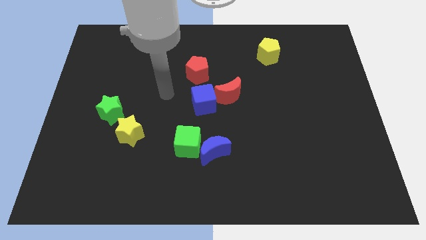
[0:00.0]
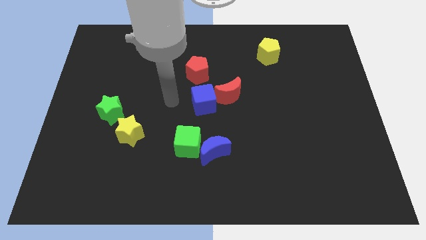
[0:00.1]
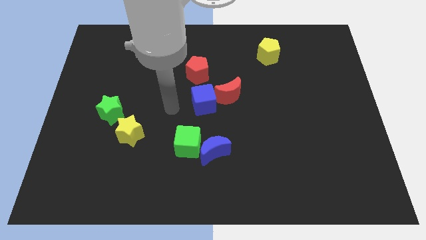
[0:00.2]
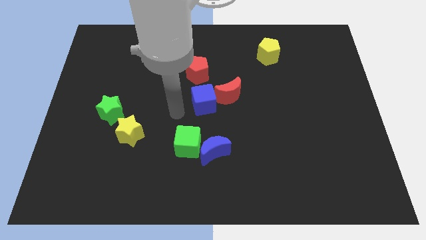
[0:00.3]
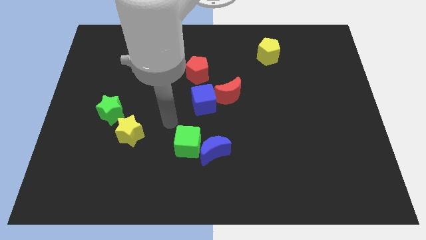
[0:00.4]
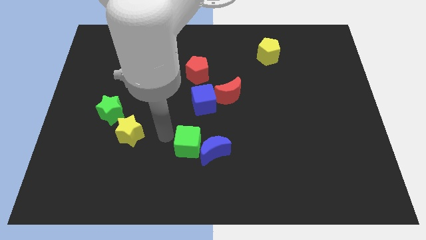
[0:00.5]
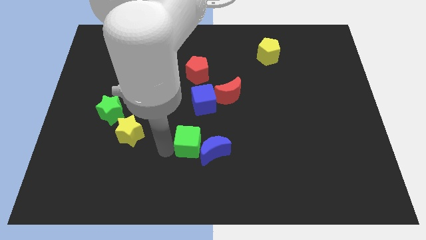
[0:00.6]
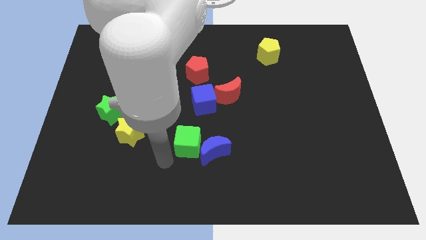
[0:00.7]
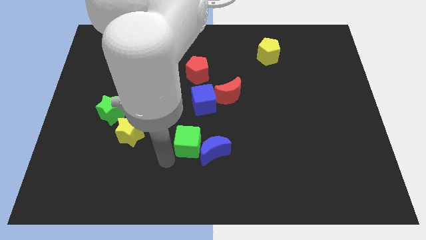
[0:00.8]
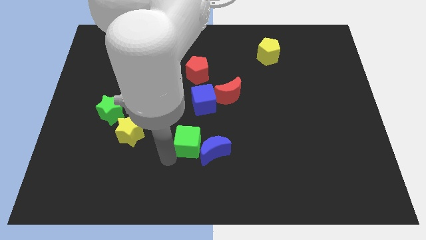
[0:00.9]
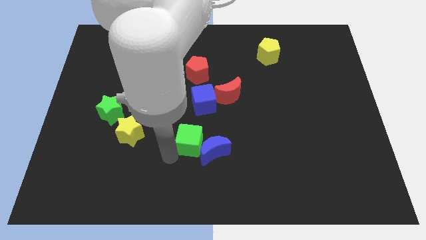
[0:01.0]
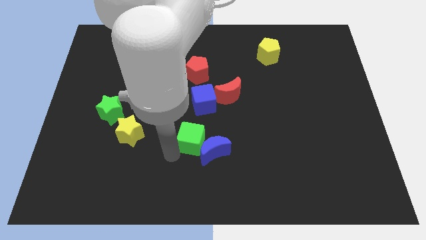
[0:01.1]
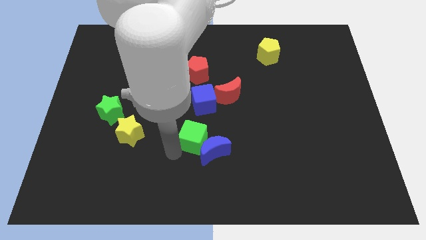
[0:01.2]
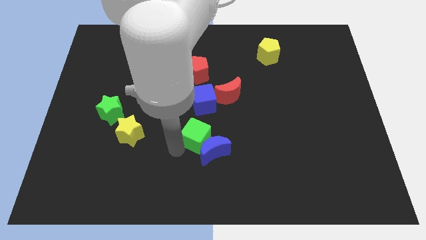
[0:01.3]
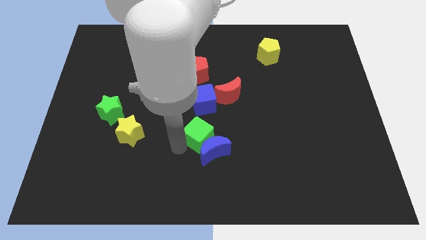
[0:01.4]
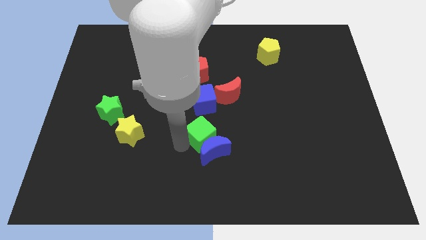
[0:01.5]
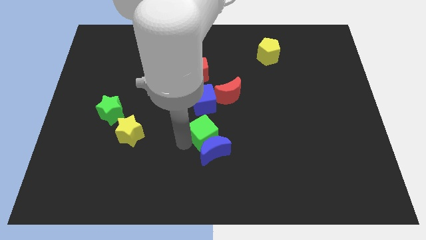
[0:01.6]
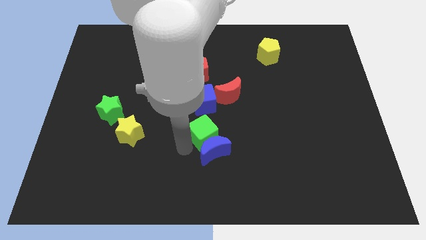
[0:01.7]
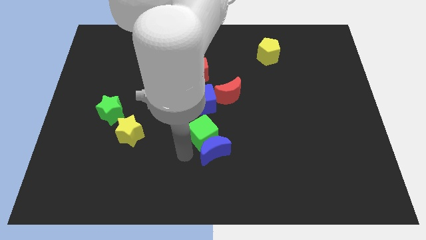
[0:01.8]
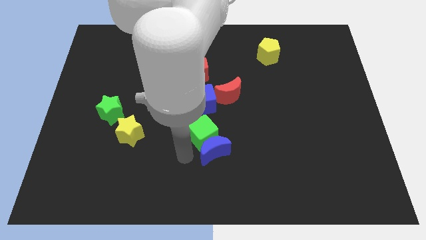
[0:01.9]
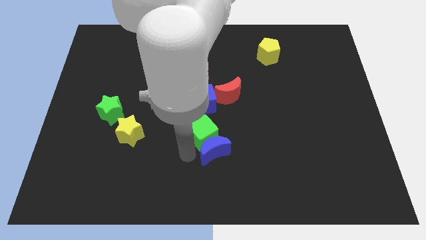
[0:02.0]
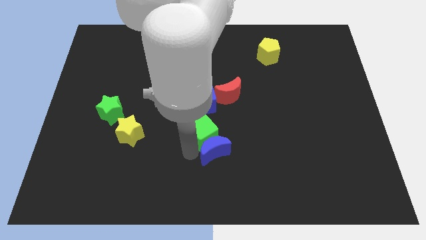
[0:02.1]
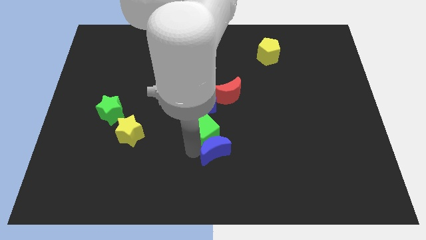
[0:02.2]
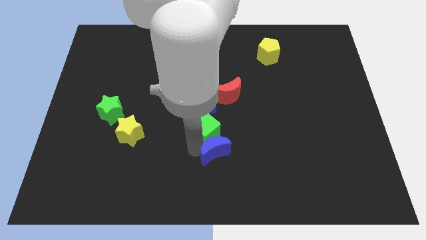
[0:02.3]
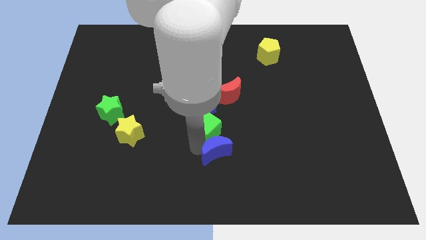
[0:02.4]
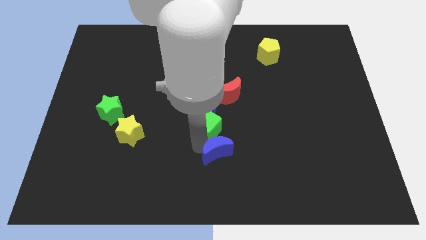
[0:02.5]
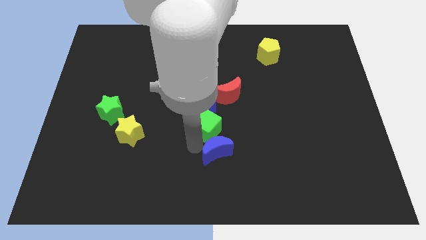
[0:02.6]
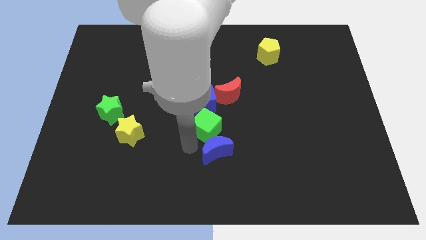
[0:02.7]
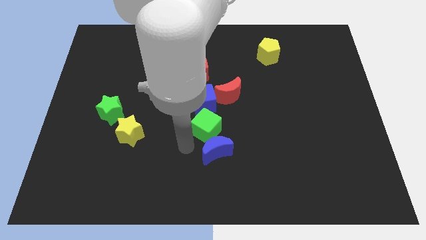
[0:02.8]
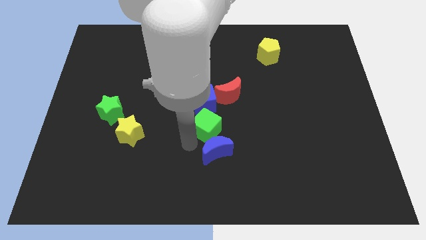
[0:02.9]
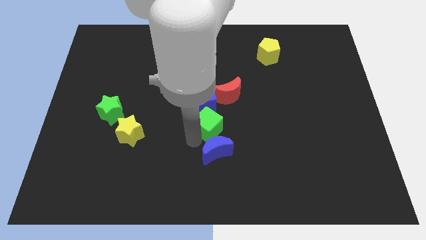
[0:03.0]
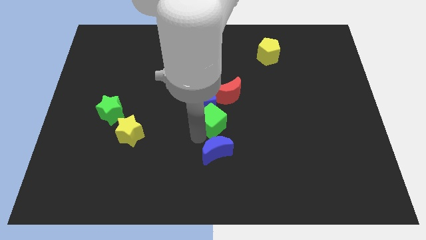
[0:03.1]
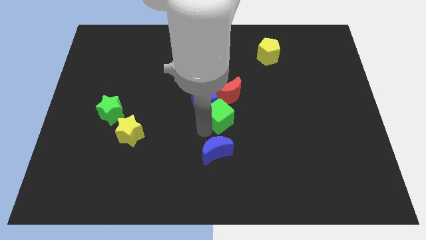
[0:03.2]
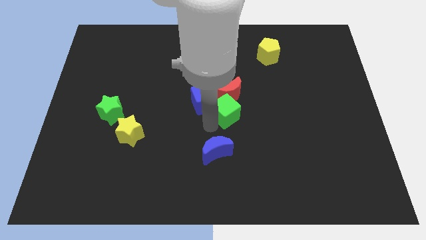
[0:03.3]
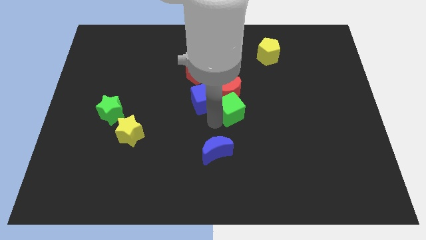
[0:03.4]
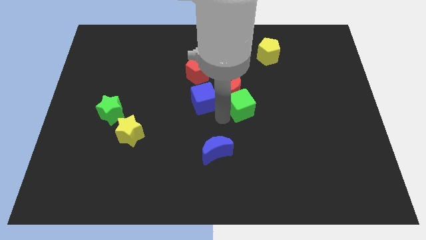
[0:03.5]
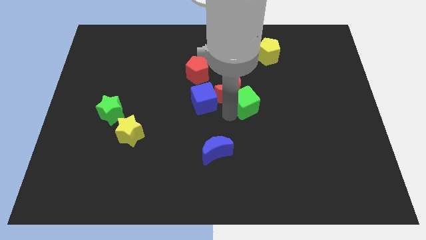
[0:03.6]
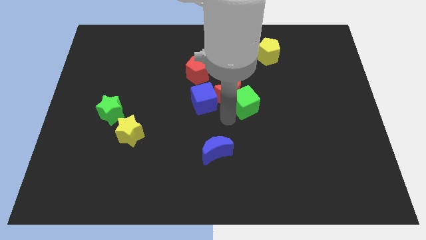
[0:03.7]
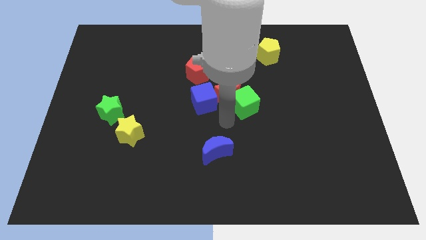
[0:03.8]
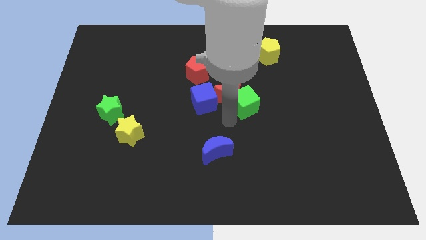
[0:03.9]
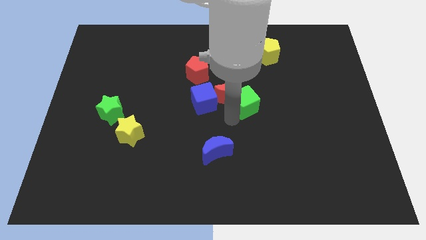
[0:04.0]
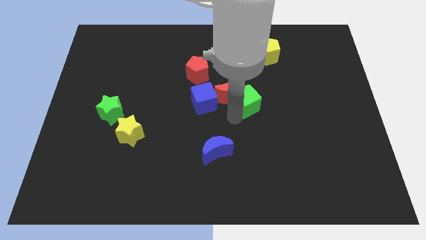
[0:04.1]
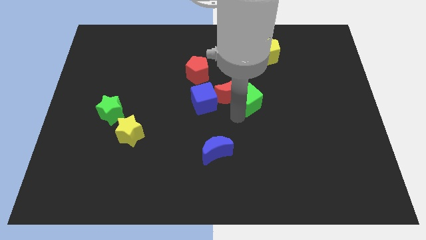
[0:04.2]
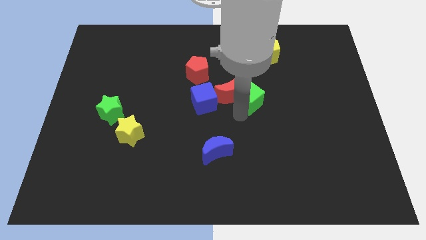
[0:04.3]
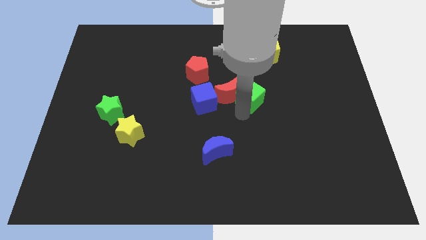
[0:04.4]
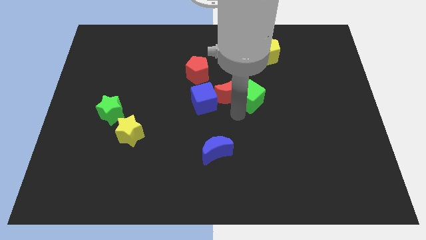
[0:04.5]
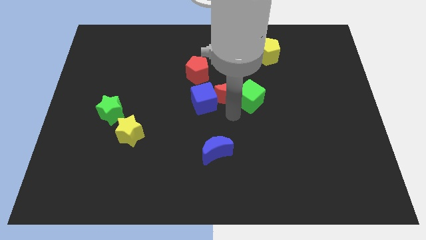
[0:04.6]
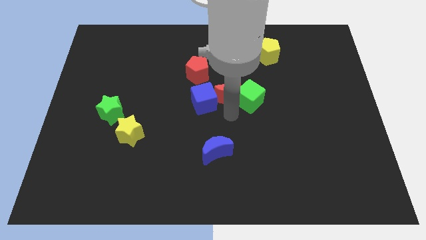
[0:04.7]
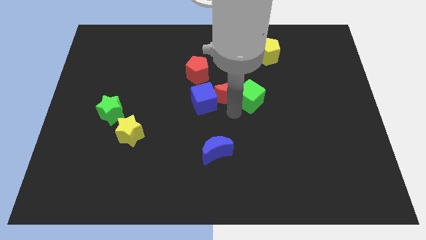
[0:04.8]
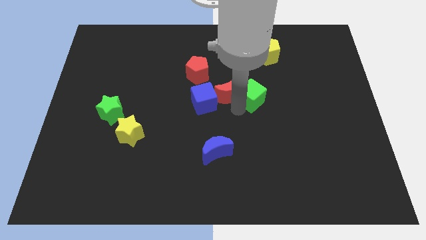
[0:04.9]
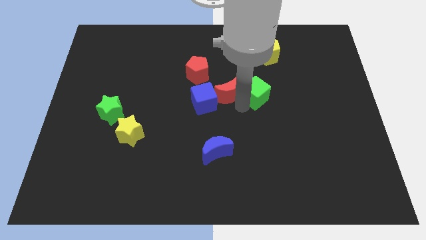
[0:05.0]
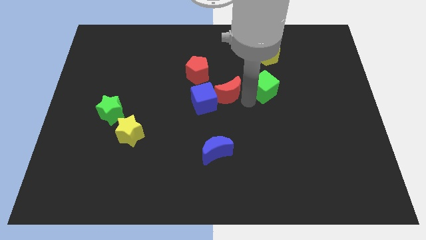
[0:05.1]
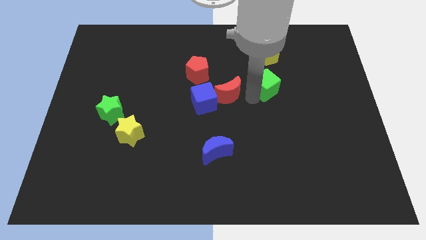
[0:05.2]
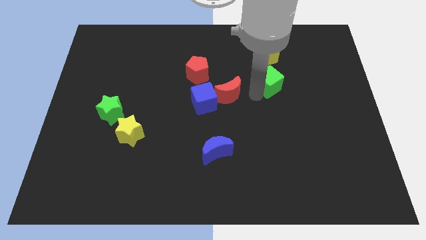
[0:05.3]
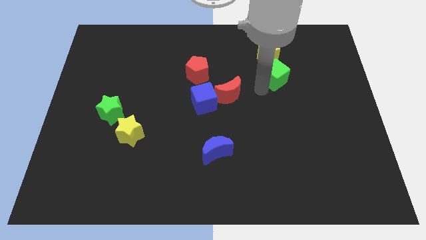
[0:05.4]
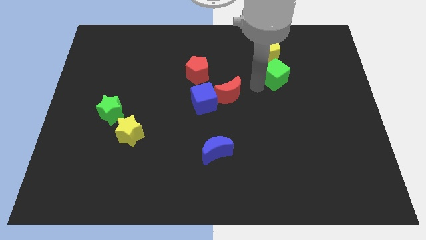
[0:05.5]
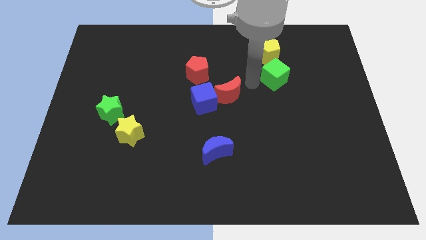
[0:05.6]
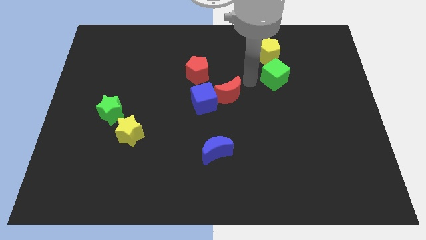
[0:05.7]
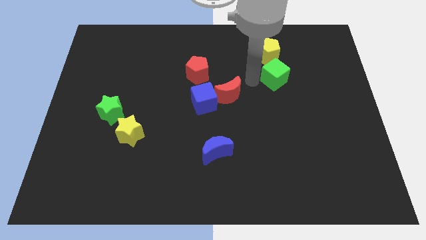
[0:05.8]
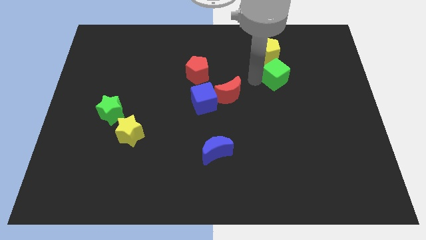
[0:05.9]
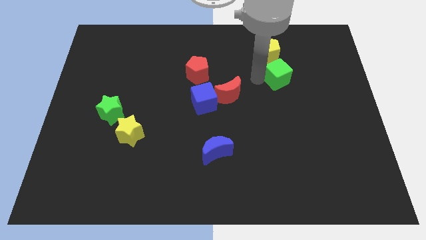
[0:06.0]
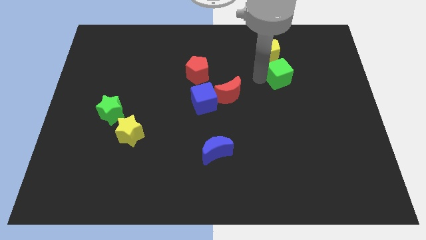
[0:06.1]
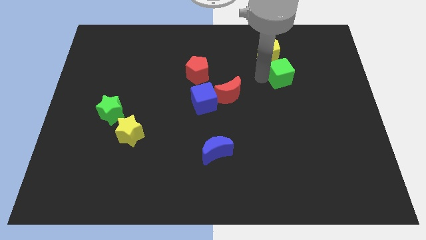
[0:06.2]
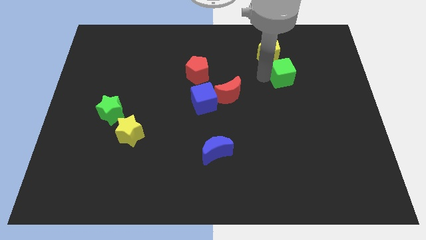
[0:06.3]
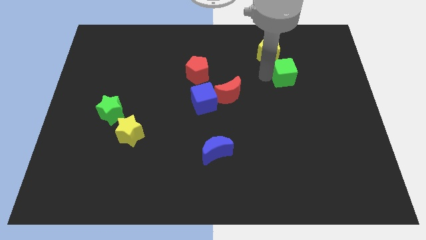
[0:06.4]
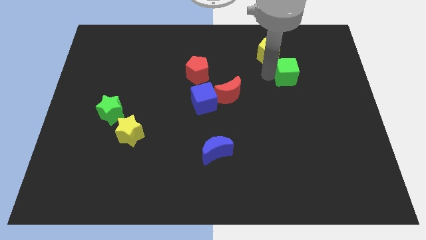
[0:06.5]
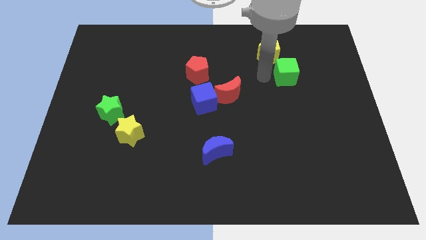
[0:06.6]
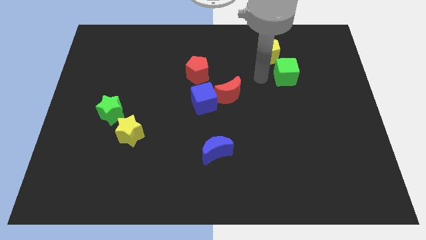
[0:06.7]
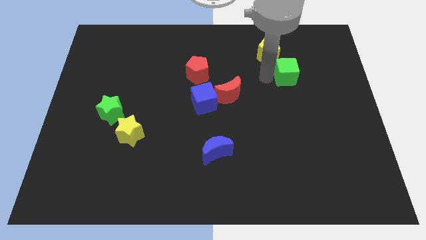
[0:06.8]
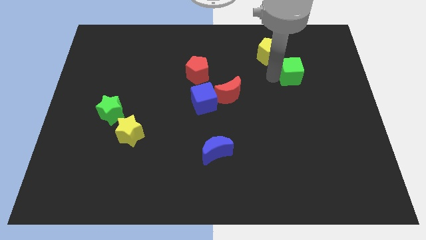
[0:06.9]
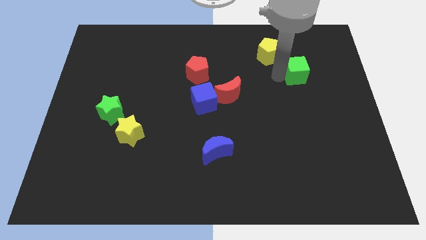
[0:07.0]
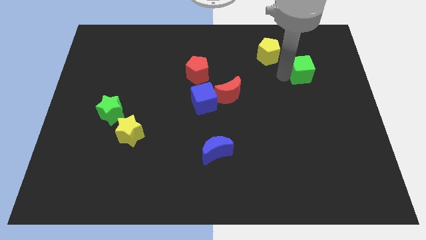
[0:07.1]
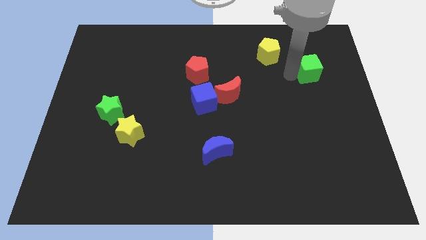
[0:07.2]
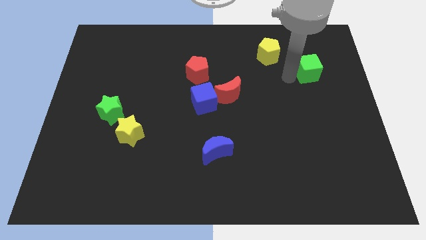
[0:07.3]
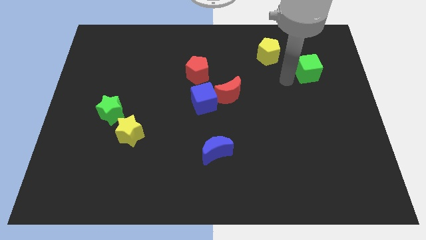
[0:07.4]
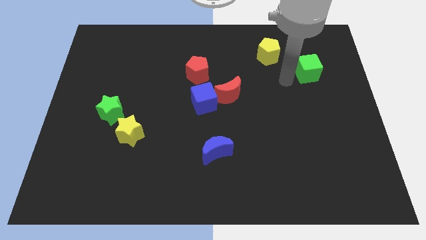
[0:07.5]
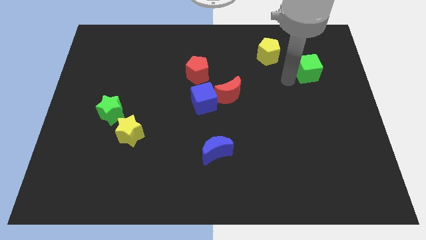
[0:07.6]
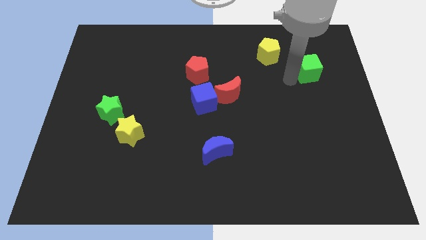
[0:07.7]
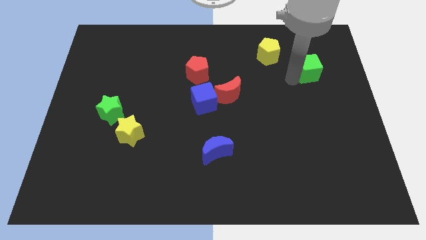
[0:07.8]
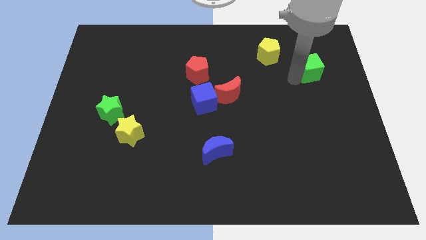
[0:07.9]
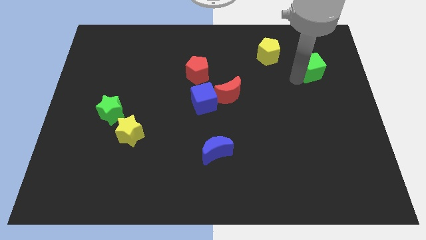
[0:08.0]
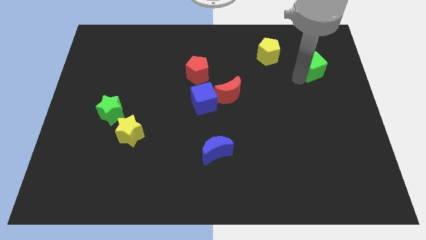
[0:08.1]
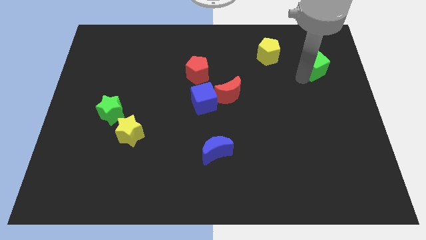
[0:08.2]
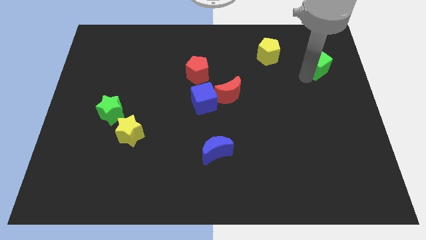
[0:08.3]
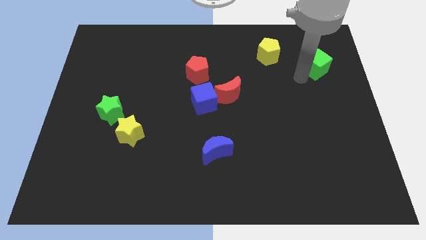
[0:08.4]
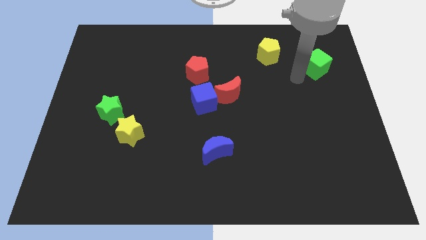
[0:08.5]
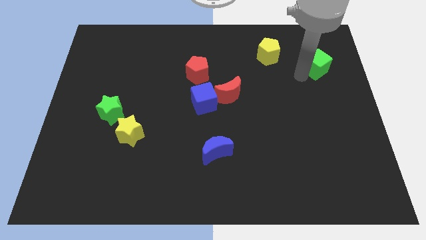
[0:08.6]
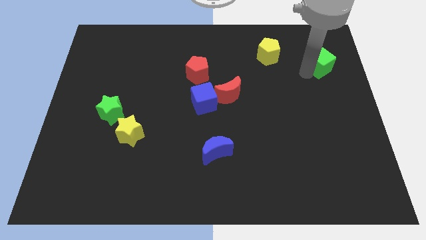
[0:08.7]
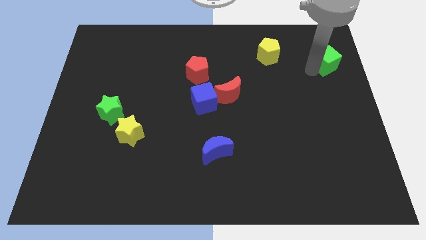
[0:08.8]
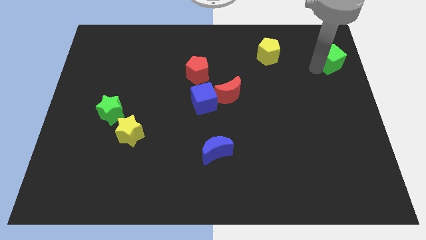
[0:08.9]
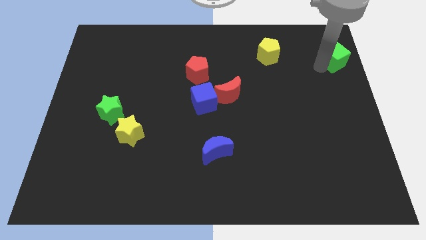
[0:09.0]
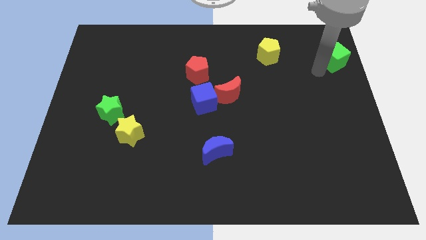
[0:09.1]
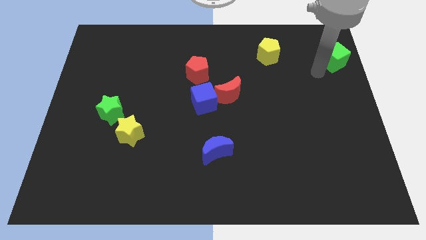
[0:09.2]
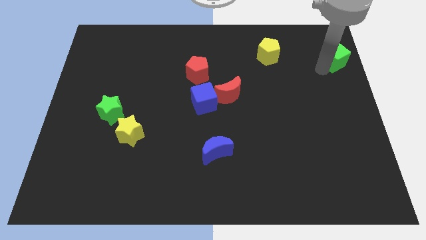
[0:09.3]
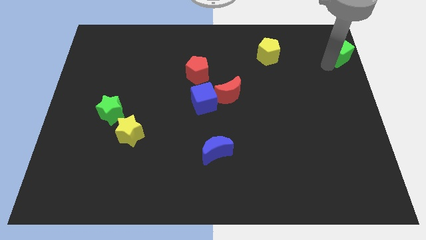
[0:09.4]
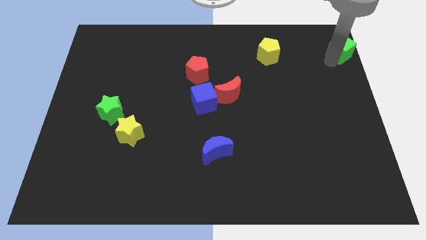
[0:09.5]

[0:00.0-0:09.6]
slide the green cube to the top right of the board
